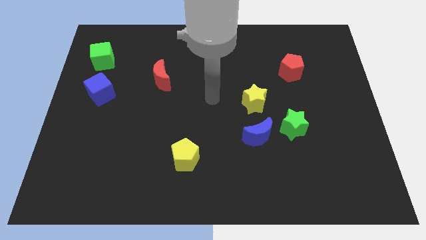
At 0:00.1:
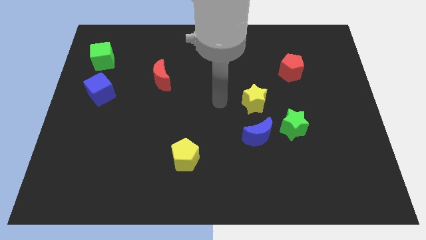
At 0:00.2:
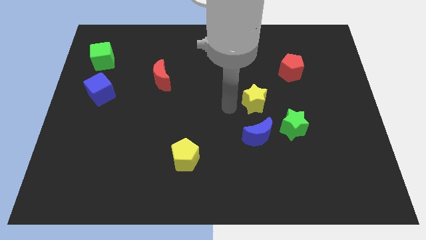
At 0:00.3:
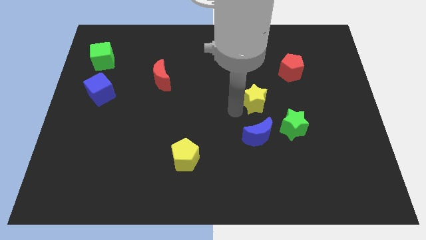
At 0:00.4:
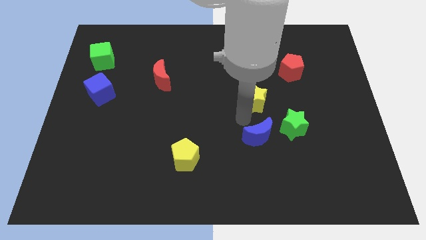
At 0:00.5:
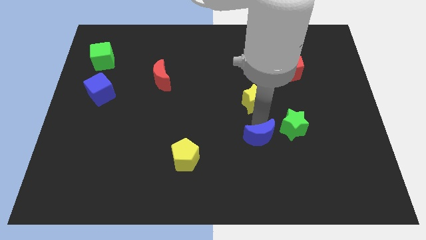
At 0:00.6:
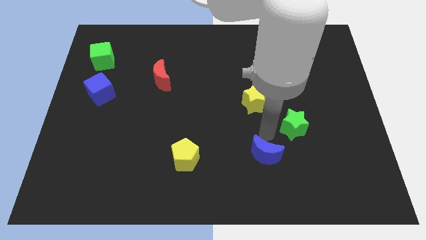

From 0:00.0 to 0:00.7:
separate the green star from the blue moon

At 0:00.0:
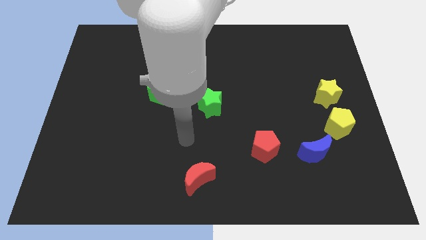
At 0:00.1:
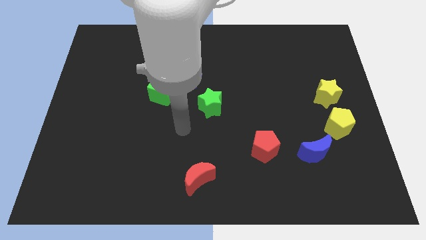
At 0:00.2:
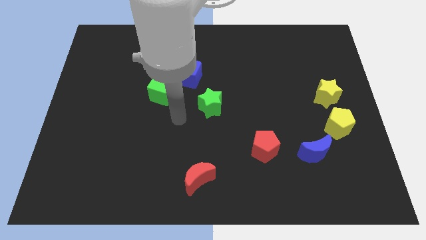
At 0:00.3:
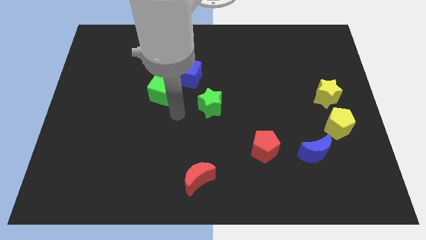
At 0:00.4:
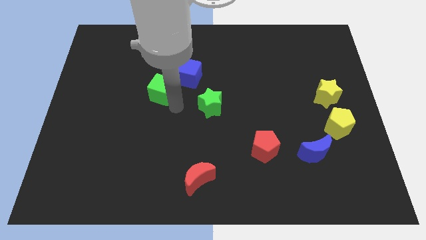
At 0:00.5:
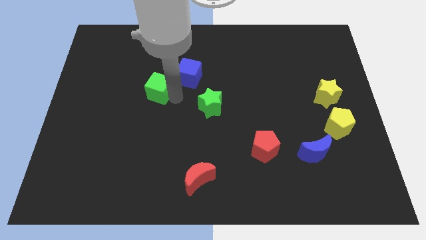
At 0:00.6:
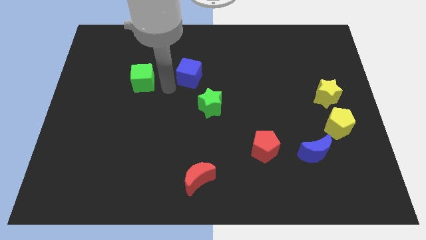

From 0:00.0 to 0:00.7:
move the blue cube away from the green cube

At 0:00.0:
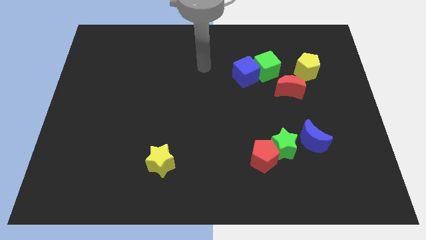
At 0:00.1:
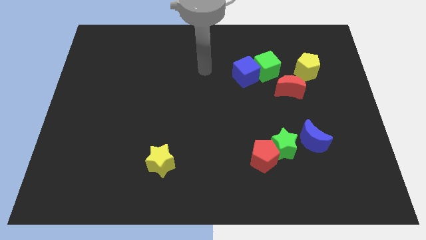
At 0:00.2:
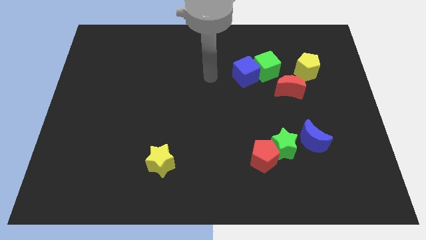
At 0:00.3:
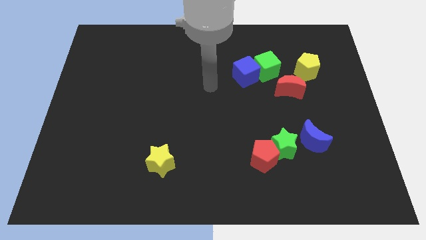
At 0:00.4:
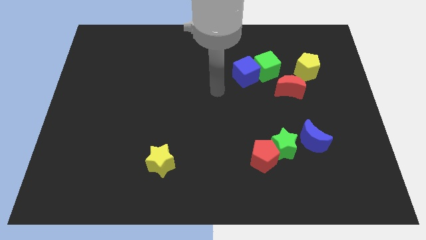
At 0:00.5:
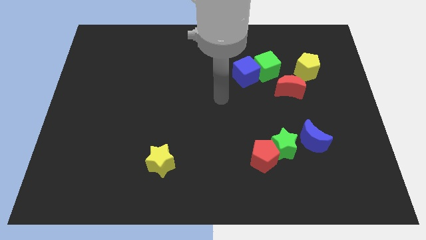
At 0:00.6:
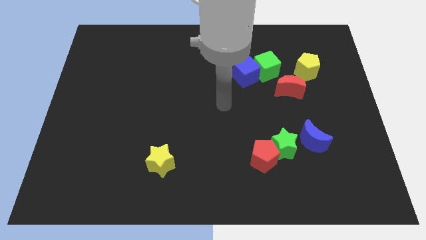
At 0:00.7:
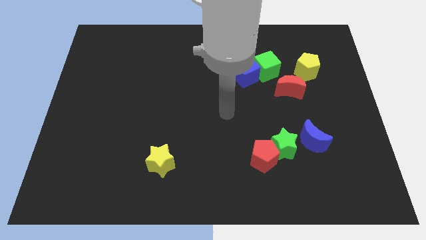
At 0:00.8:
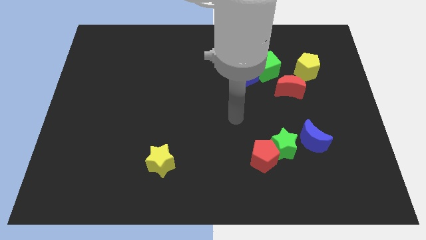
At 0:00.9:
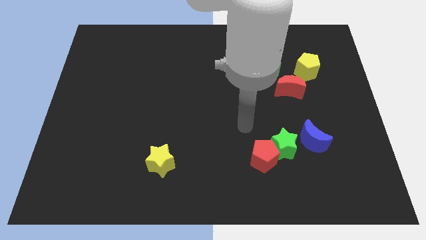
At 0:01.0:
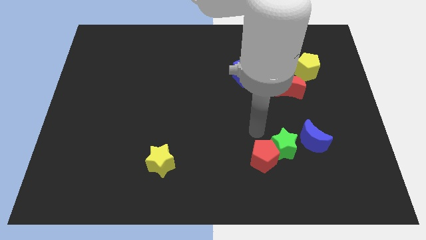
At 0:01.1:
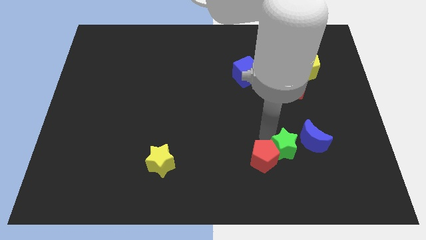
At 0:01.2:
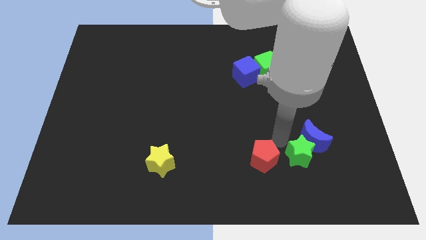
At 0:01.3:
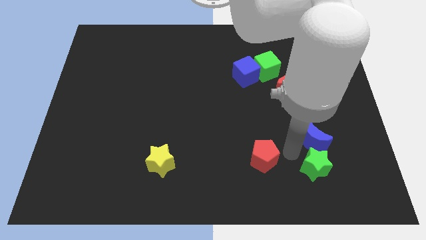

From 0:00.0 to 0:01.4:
separate the red pentagon from the green star

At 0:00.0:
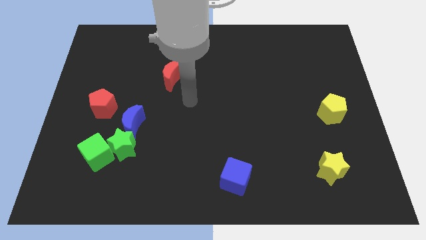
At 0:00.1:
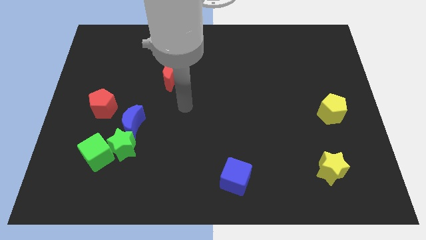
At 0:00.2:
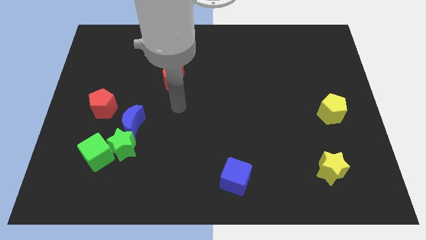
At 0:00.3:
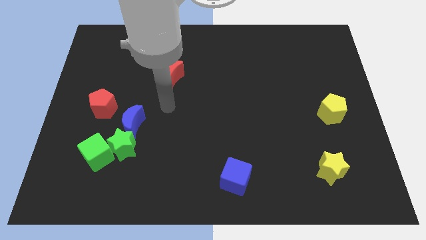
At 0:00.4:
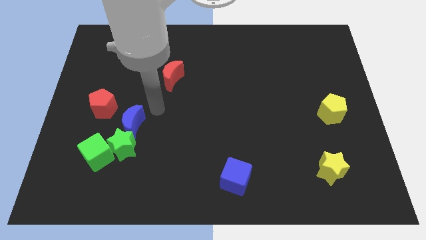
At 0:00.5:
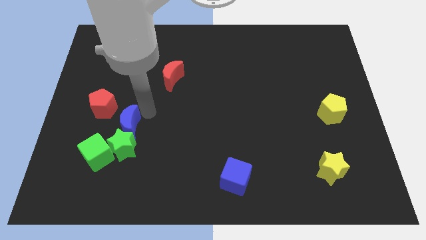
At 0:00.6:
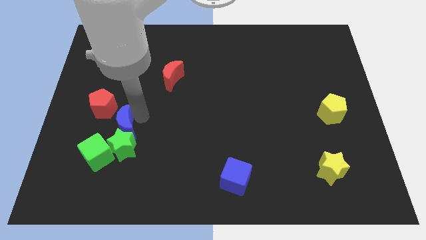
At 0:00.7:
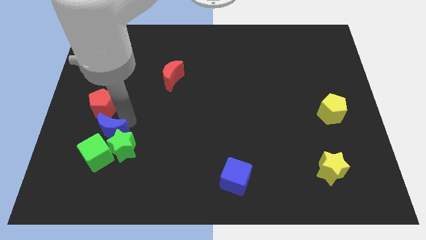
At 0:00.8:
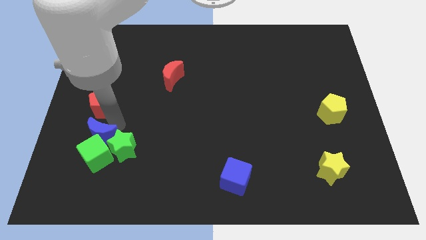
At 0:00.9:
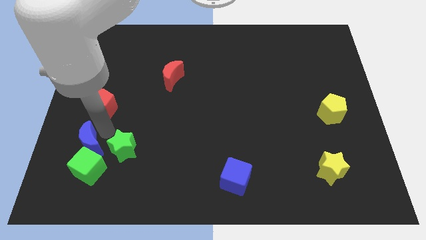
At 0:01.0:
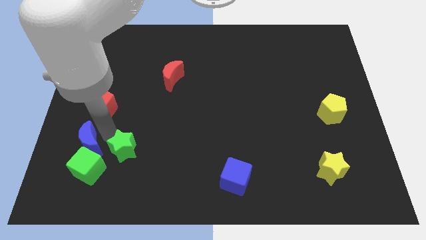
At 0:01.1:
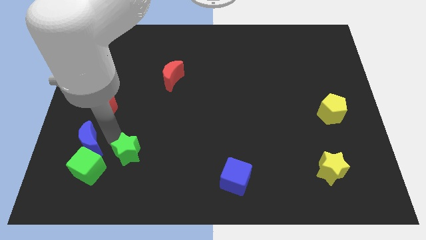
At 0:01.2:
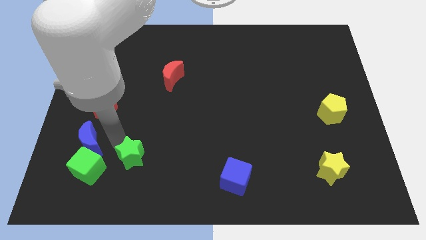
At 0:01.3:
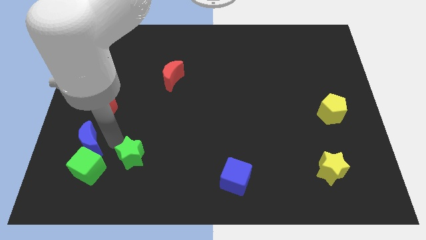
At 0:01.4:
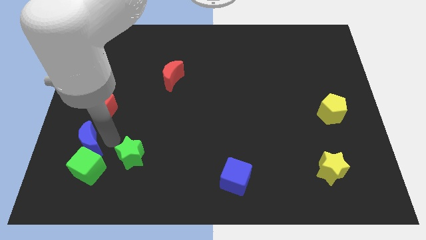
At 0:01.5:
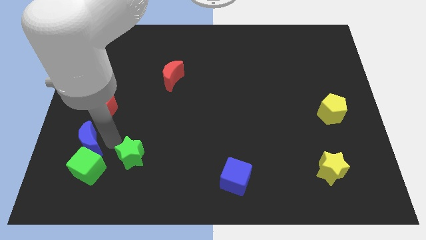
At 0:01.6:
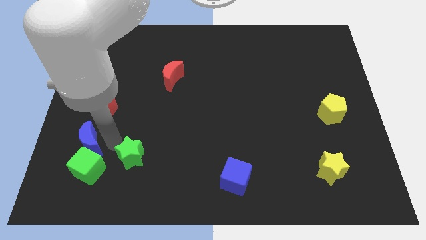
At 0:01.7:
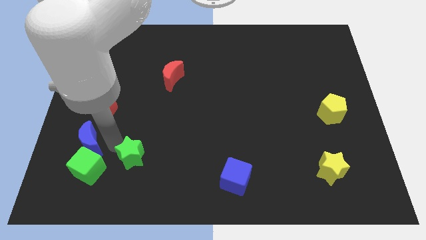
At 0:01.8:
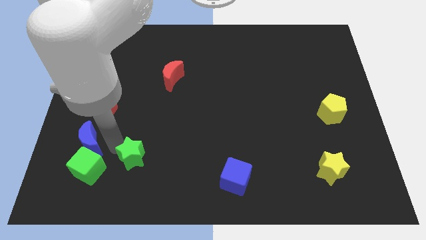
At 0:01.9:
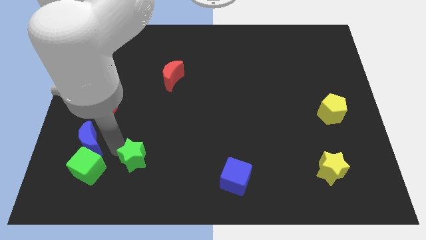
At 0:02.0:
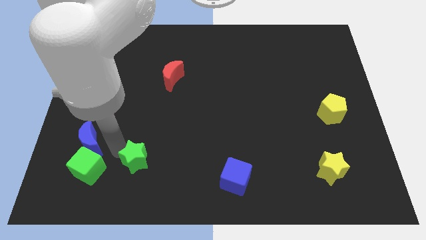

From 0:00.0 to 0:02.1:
pull the green star apart from the green cube and blue moon

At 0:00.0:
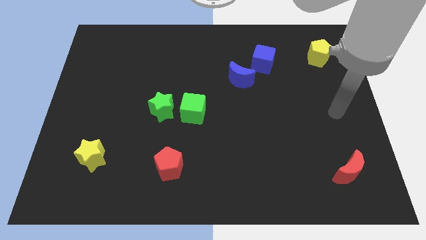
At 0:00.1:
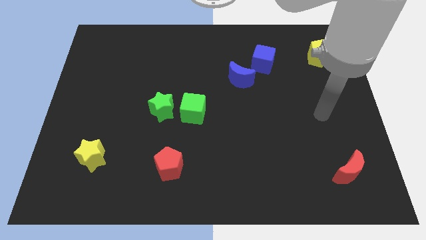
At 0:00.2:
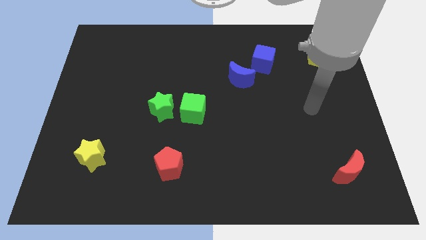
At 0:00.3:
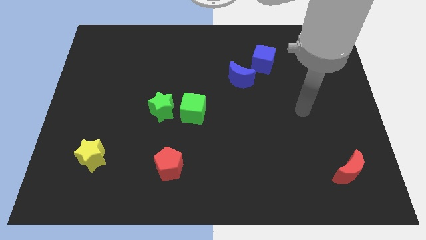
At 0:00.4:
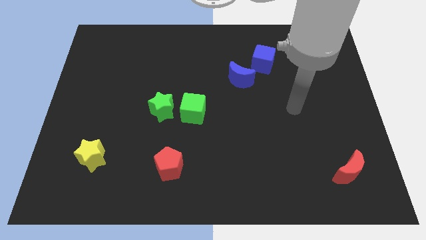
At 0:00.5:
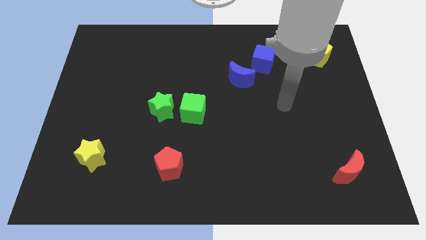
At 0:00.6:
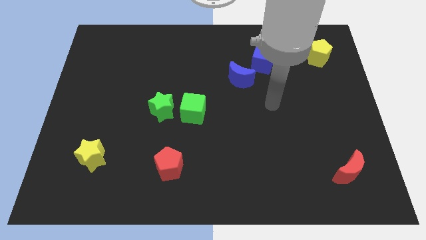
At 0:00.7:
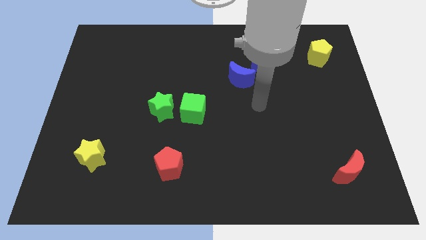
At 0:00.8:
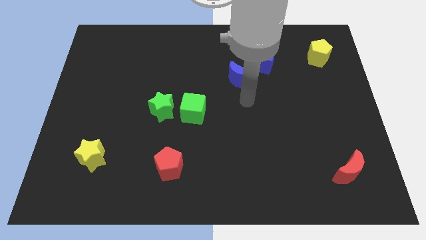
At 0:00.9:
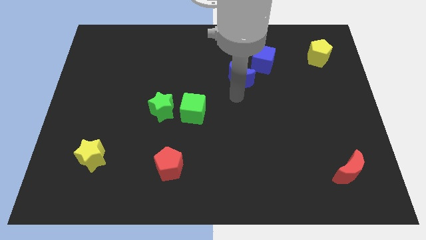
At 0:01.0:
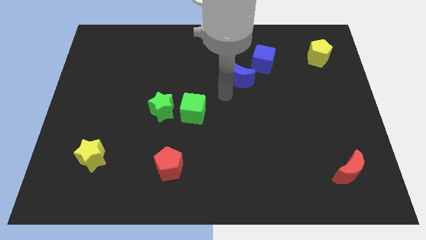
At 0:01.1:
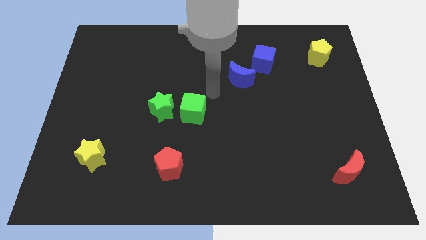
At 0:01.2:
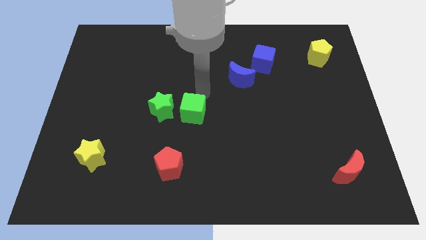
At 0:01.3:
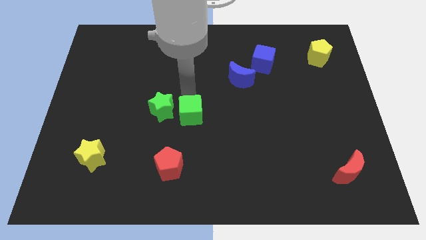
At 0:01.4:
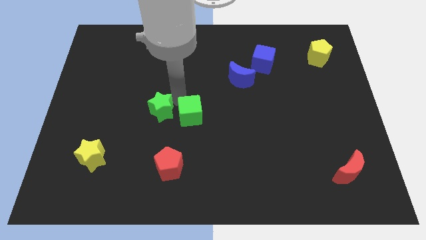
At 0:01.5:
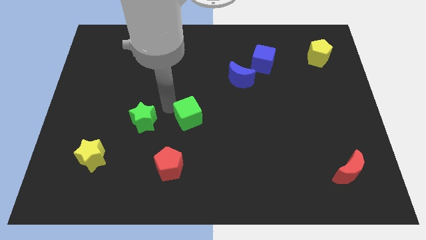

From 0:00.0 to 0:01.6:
move the green cube away from the green star

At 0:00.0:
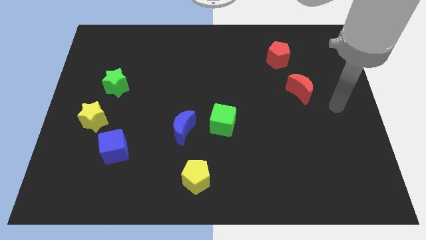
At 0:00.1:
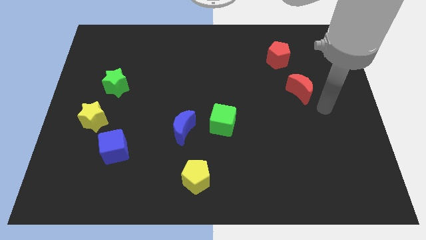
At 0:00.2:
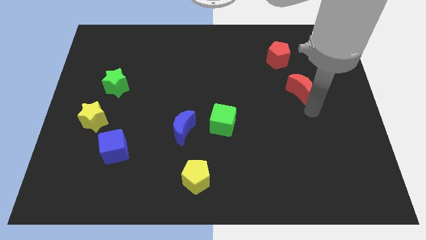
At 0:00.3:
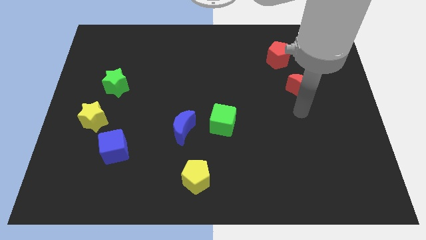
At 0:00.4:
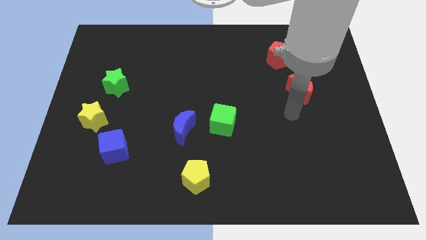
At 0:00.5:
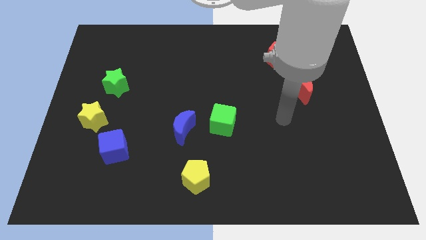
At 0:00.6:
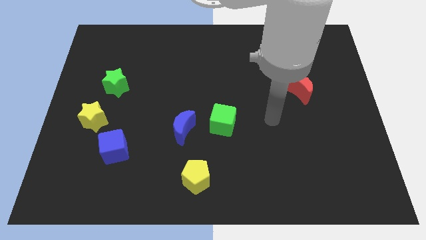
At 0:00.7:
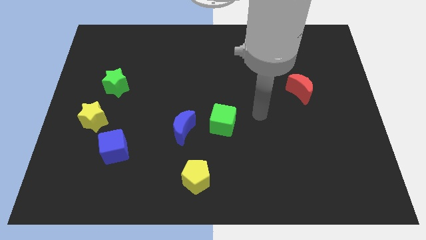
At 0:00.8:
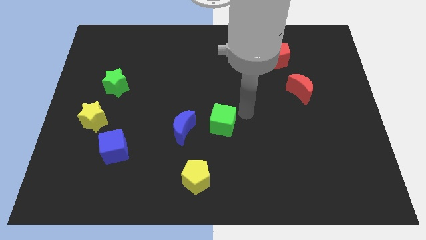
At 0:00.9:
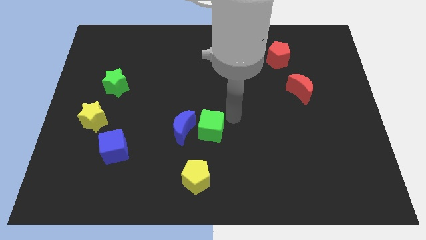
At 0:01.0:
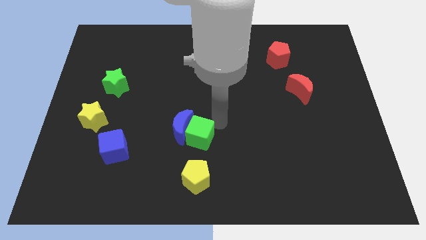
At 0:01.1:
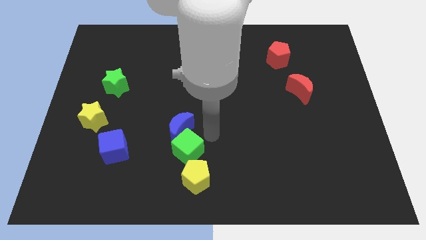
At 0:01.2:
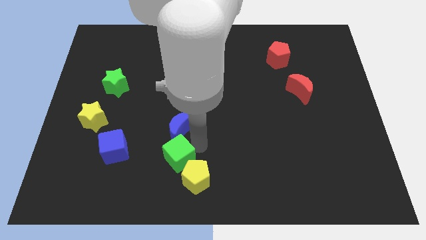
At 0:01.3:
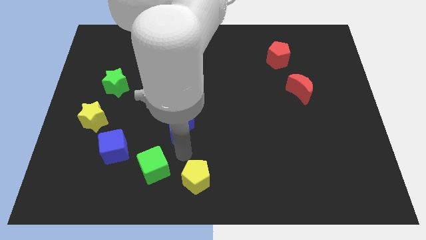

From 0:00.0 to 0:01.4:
pull the blue moon apart from the green cube

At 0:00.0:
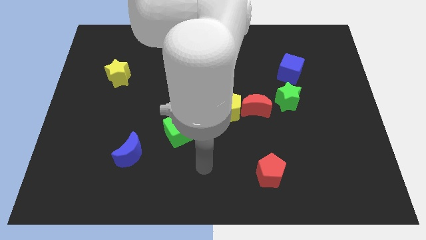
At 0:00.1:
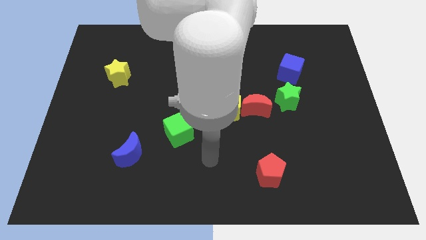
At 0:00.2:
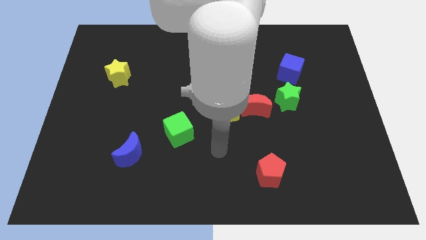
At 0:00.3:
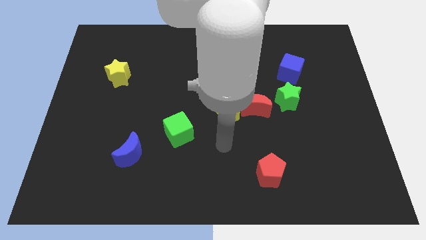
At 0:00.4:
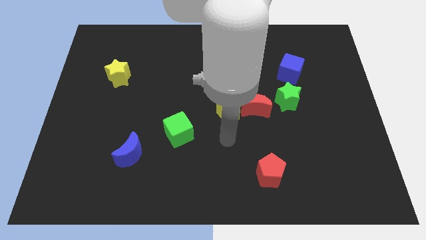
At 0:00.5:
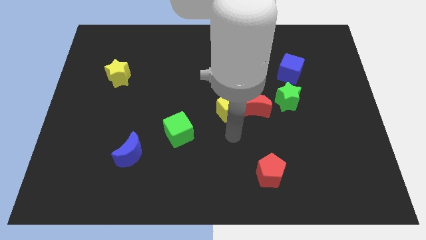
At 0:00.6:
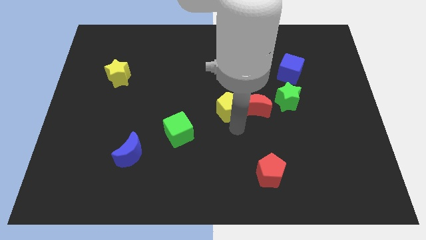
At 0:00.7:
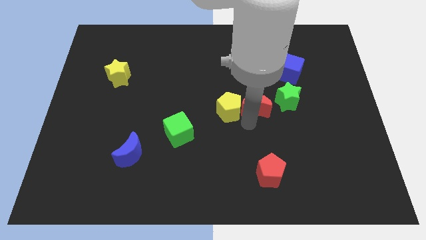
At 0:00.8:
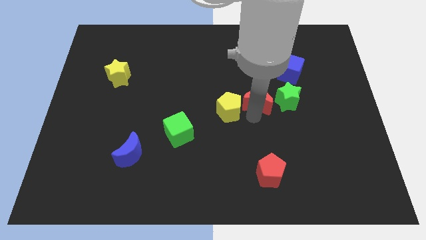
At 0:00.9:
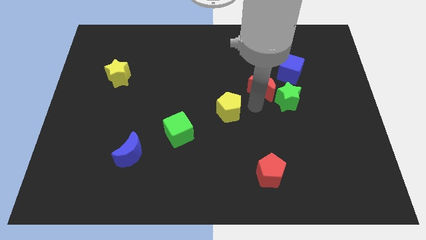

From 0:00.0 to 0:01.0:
separate the yellow pentagon from the red moon

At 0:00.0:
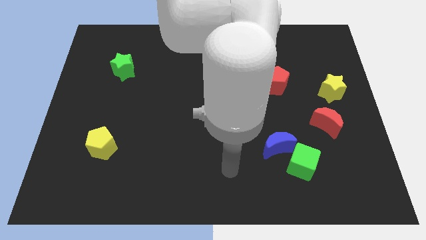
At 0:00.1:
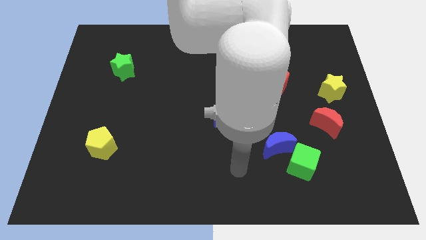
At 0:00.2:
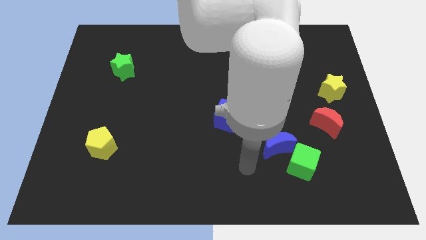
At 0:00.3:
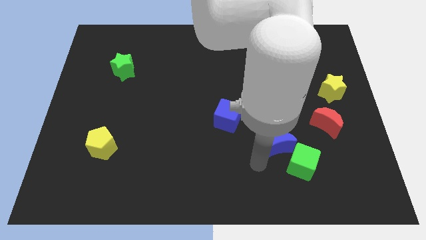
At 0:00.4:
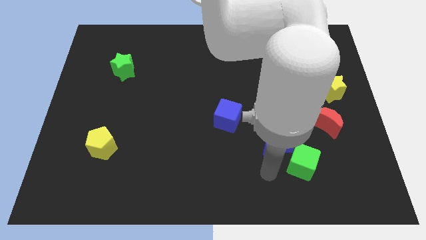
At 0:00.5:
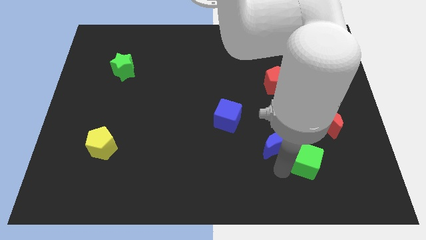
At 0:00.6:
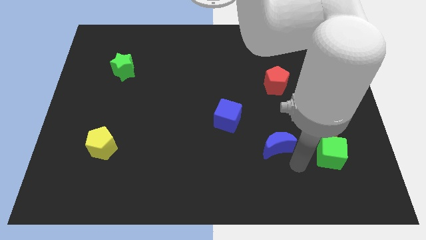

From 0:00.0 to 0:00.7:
move the blue moon away from the green cube
